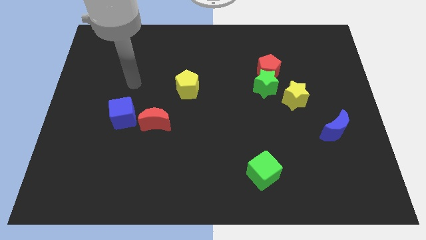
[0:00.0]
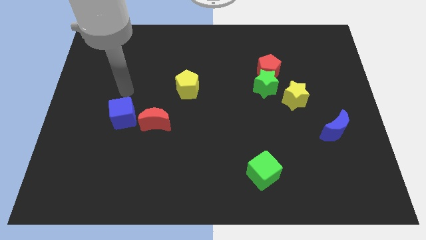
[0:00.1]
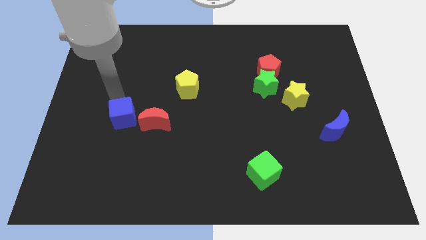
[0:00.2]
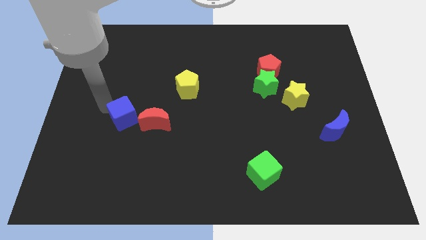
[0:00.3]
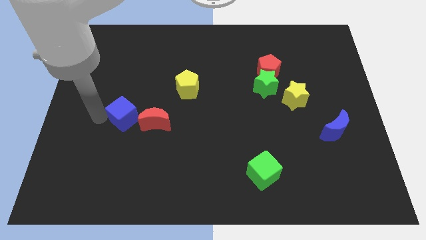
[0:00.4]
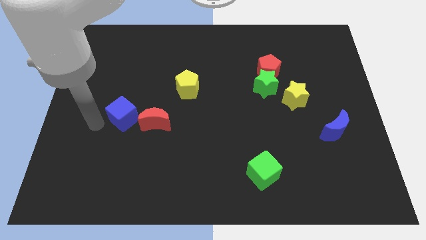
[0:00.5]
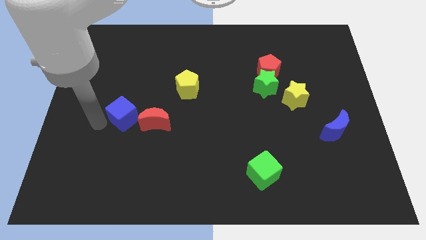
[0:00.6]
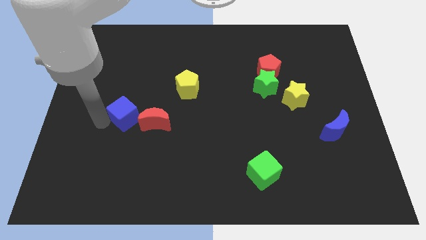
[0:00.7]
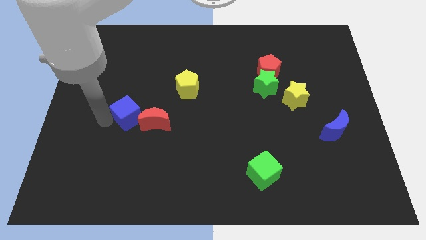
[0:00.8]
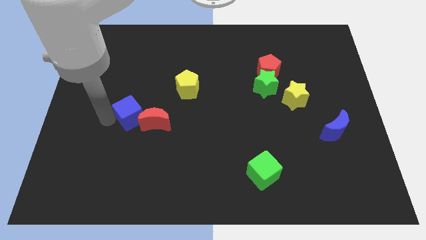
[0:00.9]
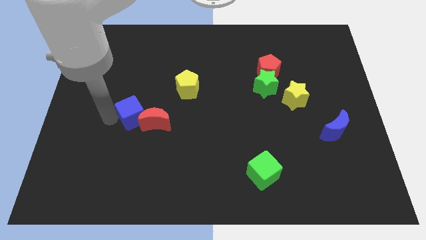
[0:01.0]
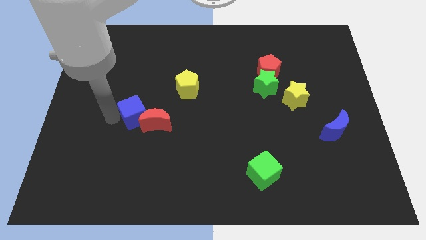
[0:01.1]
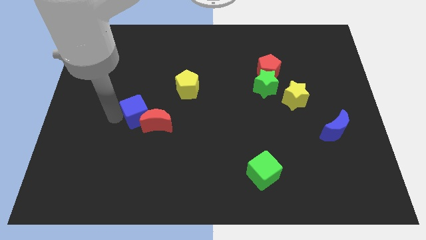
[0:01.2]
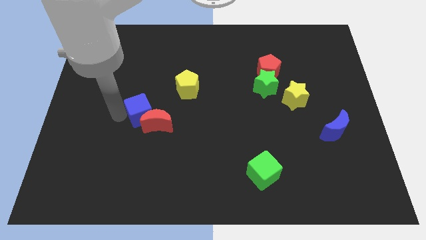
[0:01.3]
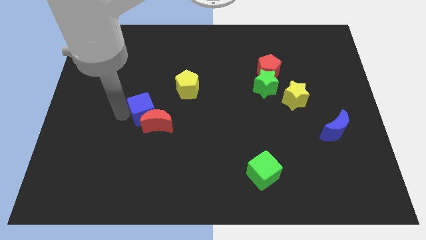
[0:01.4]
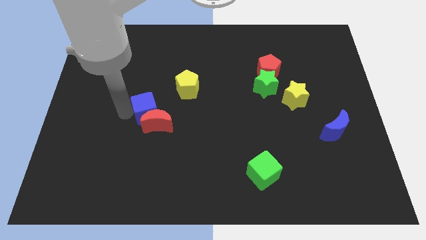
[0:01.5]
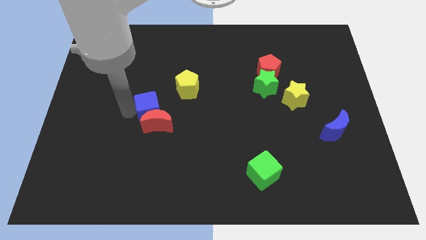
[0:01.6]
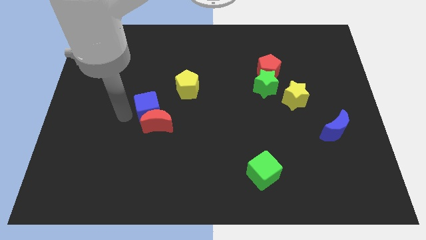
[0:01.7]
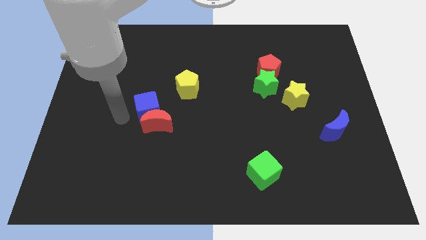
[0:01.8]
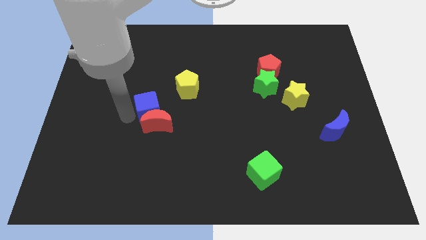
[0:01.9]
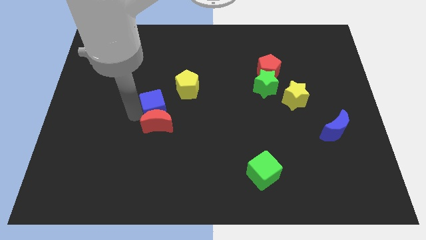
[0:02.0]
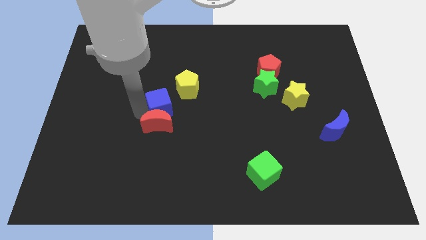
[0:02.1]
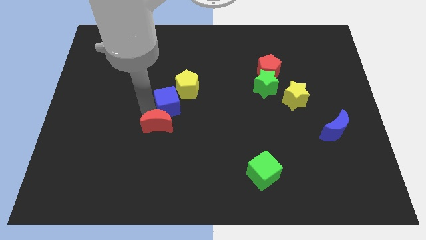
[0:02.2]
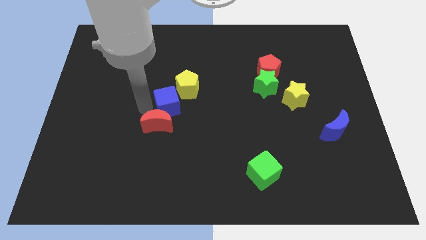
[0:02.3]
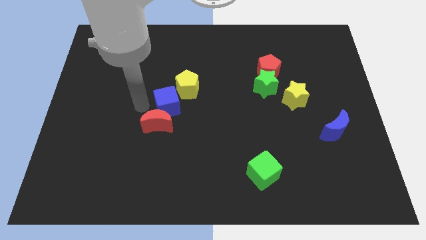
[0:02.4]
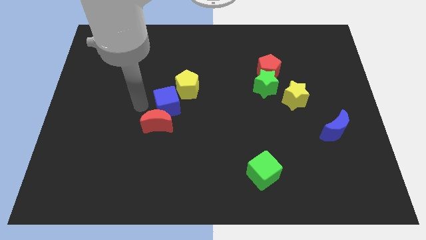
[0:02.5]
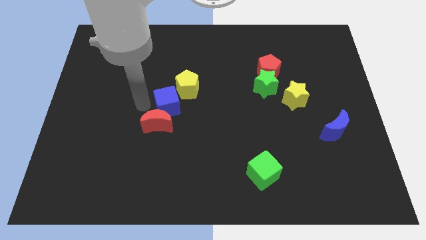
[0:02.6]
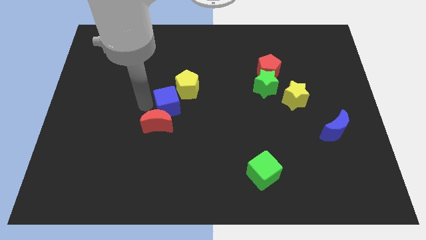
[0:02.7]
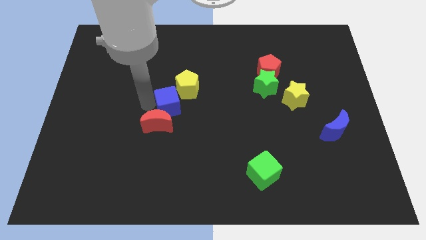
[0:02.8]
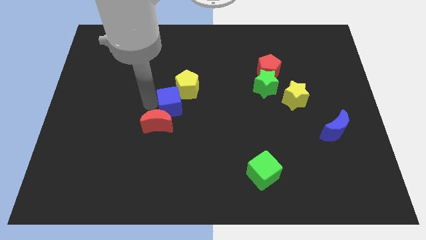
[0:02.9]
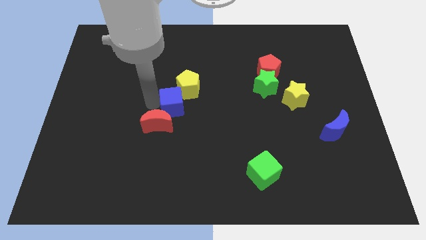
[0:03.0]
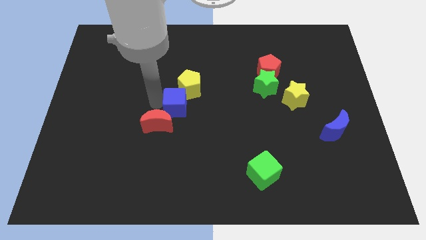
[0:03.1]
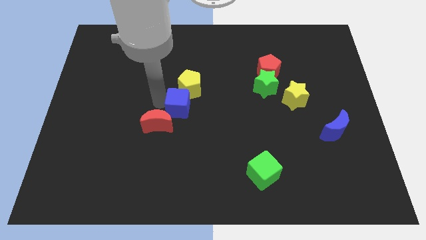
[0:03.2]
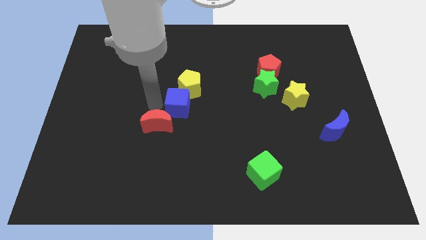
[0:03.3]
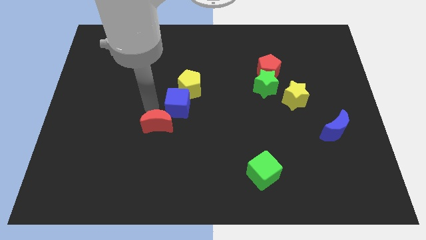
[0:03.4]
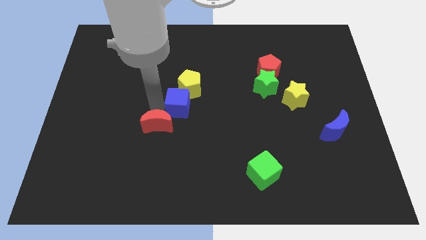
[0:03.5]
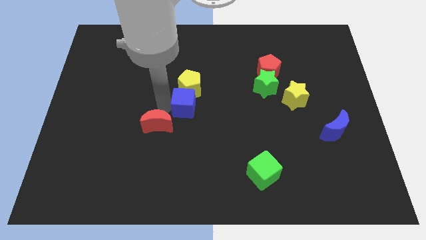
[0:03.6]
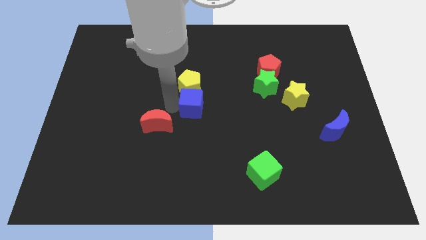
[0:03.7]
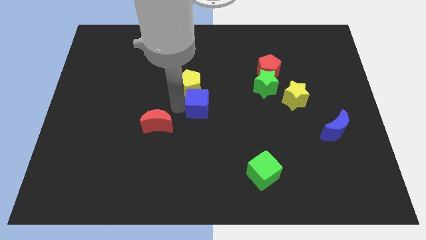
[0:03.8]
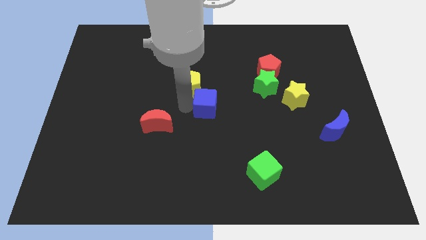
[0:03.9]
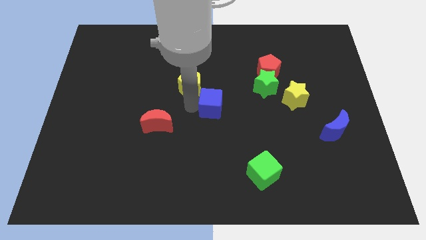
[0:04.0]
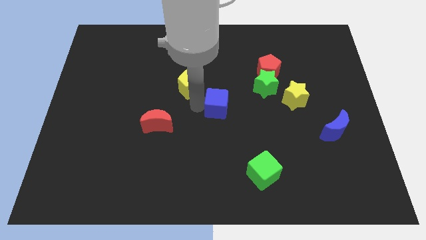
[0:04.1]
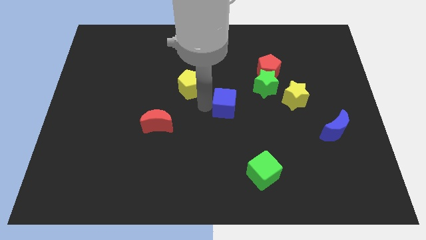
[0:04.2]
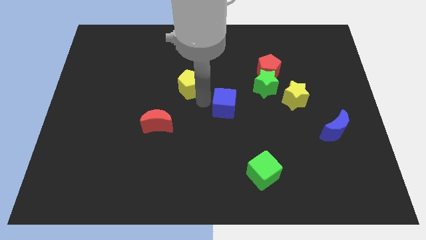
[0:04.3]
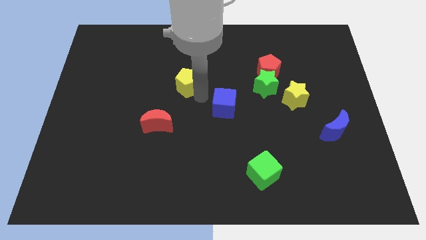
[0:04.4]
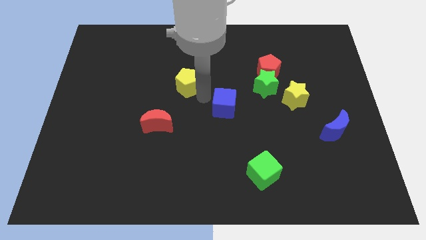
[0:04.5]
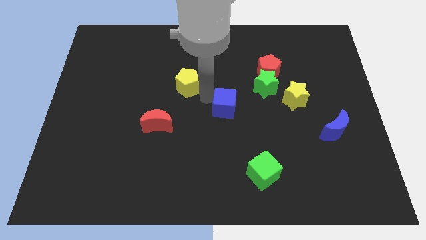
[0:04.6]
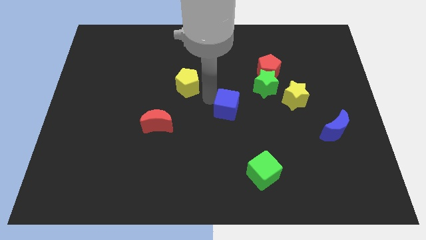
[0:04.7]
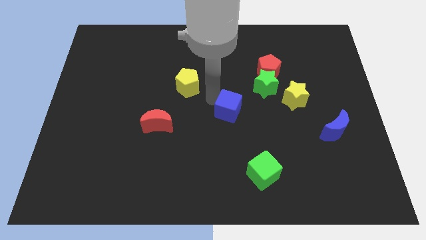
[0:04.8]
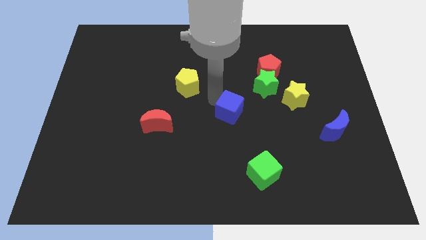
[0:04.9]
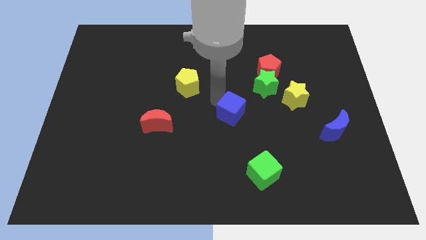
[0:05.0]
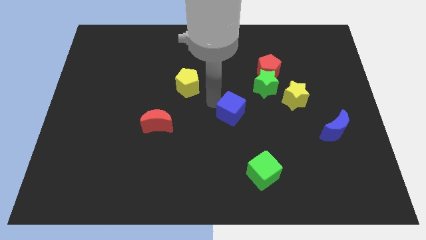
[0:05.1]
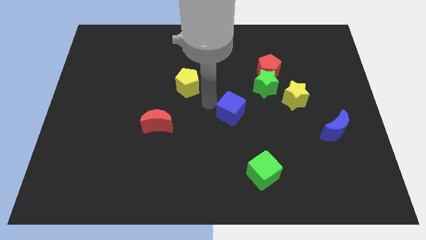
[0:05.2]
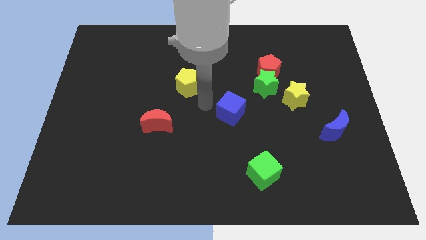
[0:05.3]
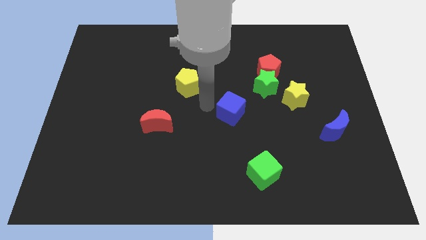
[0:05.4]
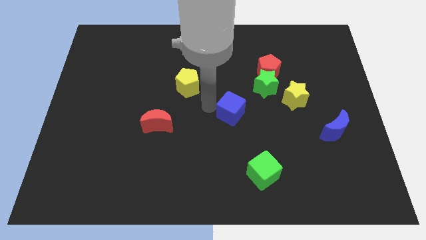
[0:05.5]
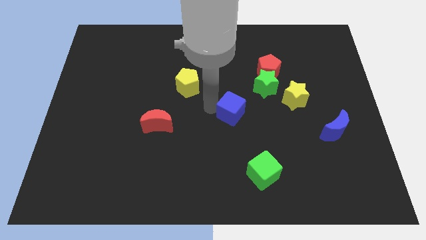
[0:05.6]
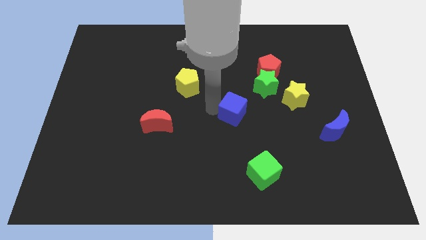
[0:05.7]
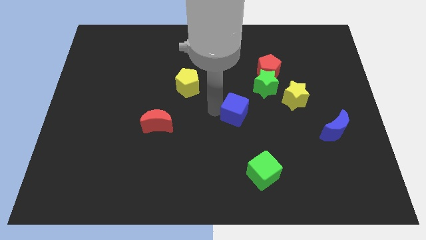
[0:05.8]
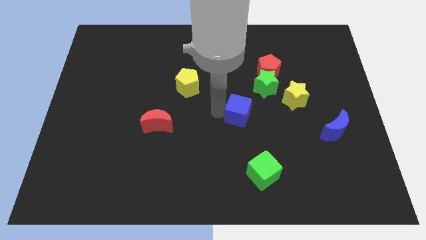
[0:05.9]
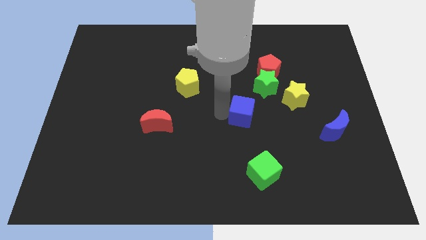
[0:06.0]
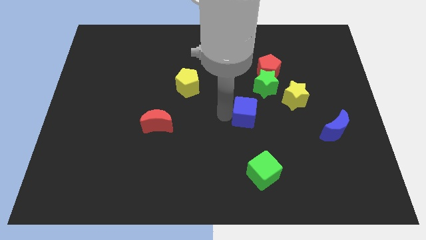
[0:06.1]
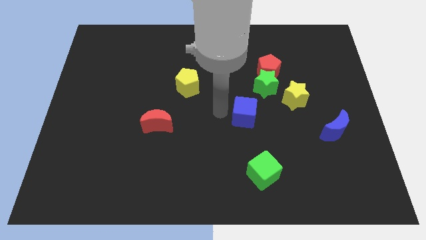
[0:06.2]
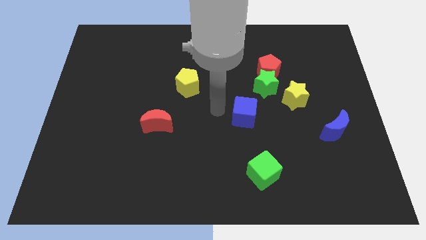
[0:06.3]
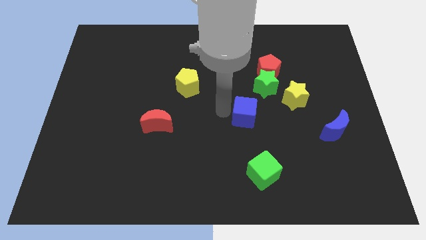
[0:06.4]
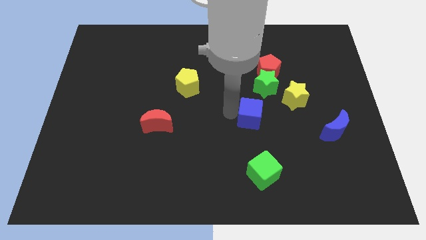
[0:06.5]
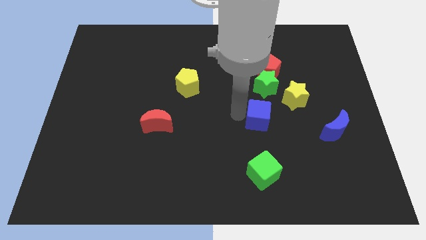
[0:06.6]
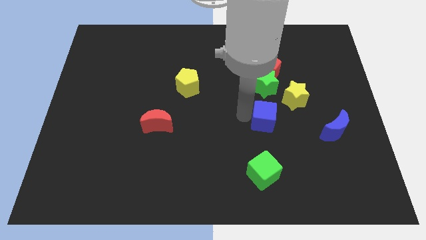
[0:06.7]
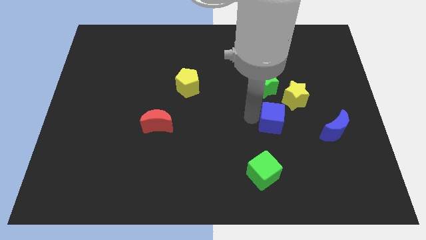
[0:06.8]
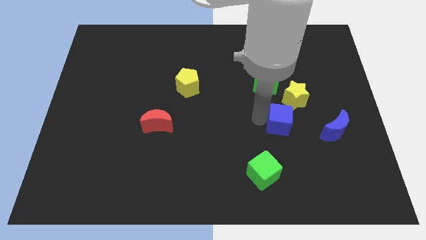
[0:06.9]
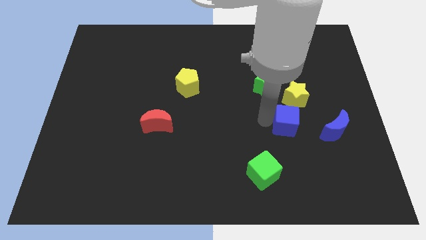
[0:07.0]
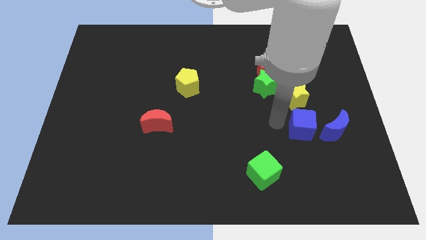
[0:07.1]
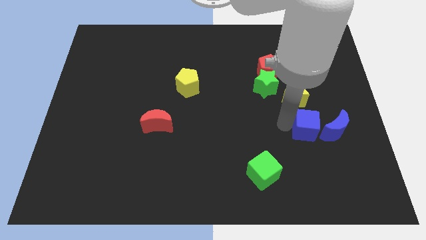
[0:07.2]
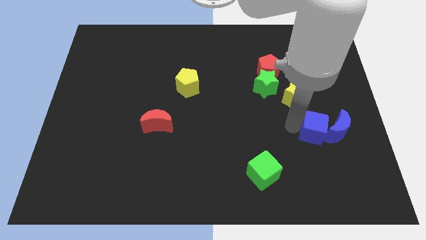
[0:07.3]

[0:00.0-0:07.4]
push the blue cube to the blue moon

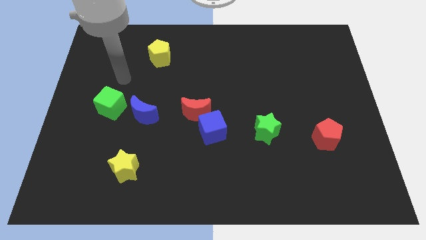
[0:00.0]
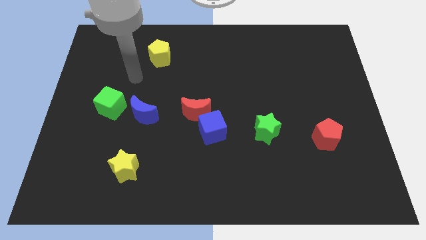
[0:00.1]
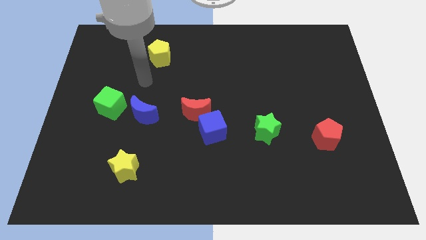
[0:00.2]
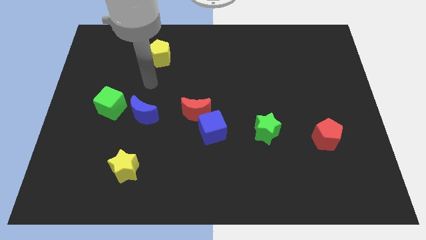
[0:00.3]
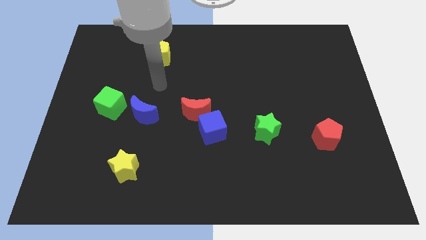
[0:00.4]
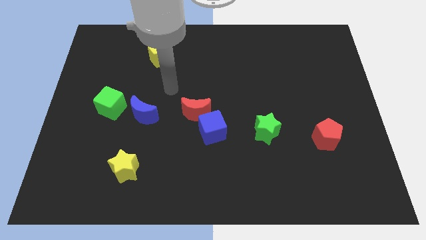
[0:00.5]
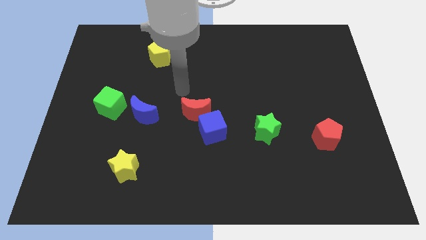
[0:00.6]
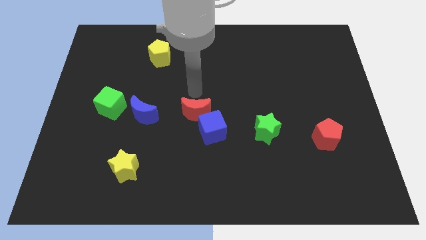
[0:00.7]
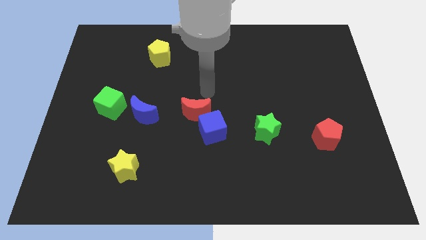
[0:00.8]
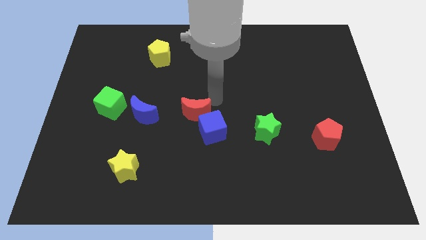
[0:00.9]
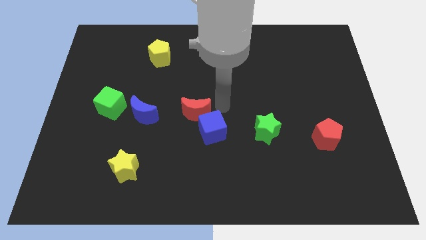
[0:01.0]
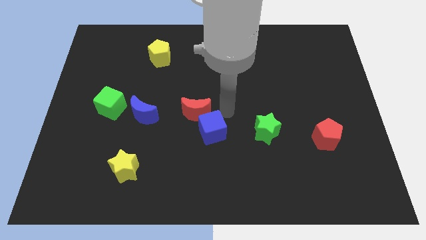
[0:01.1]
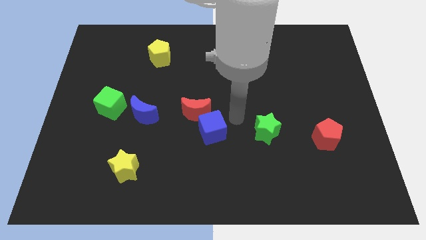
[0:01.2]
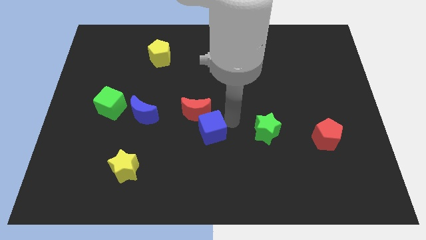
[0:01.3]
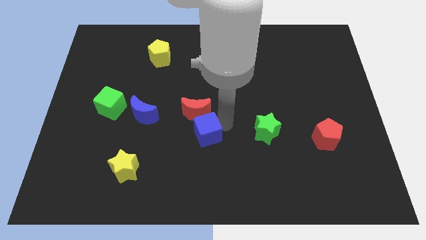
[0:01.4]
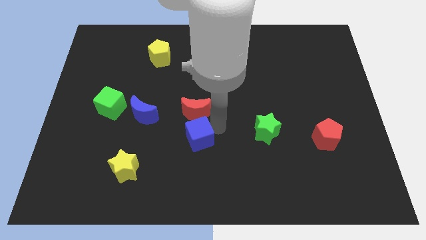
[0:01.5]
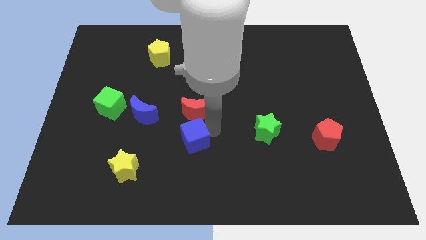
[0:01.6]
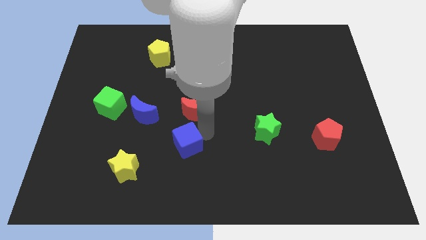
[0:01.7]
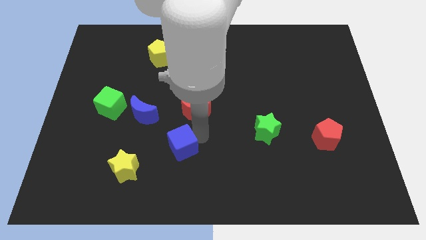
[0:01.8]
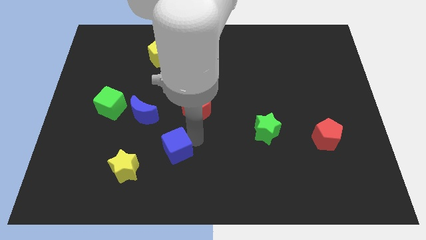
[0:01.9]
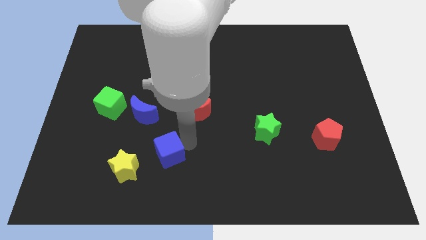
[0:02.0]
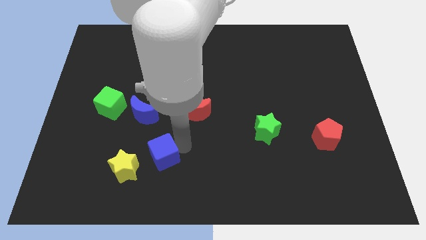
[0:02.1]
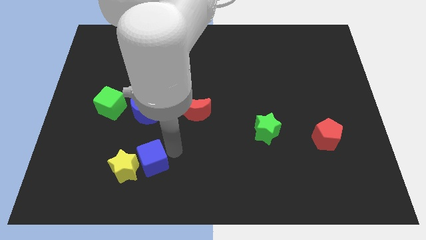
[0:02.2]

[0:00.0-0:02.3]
put the blue cube close to the yellow star
